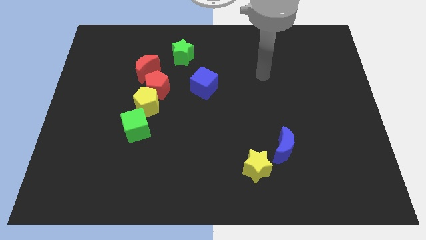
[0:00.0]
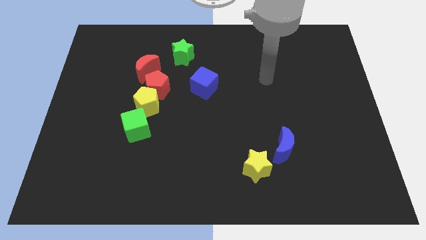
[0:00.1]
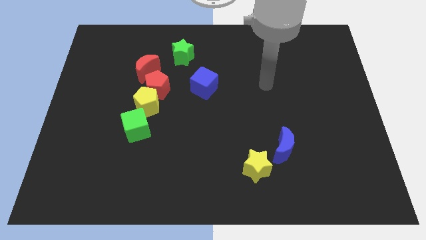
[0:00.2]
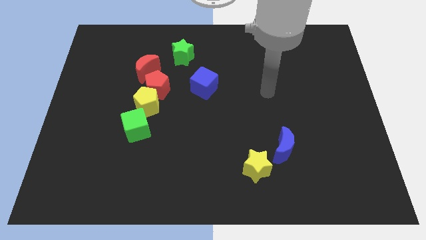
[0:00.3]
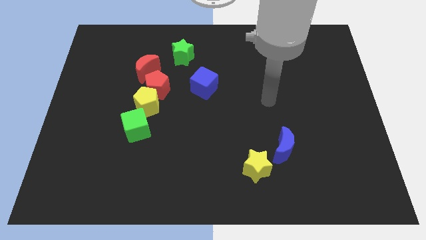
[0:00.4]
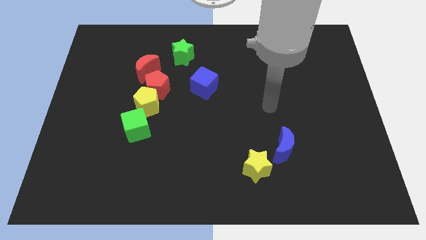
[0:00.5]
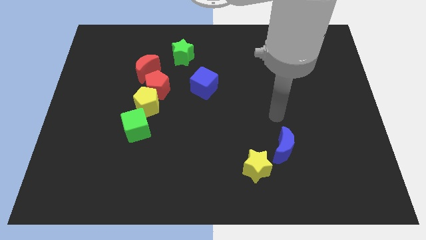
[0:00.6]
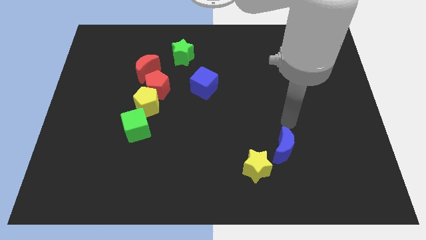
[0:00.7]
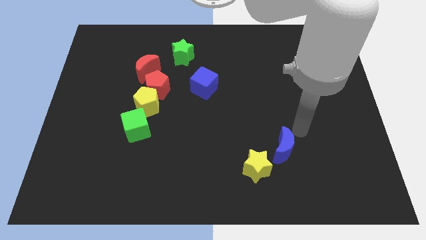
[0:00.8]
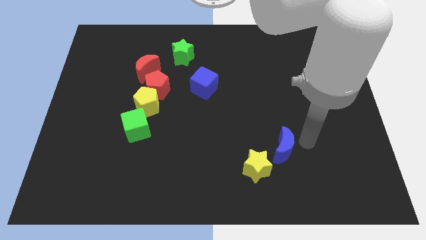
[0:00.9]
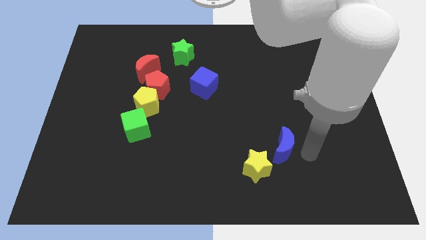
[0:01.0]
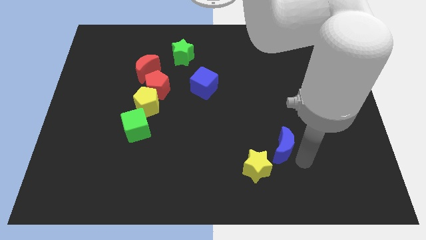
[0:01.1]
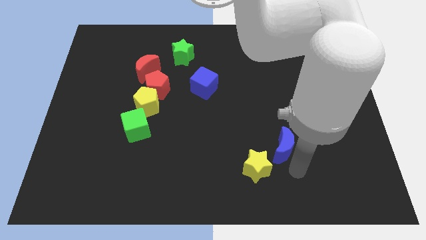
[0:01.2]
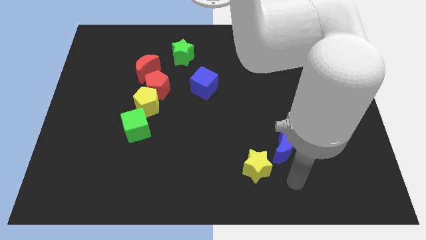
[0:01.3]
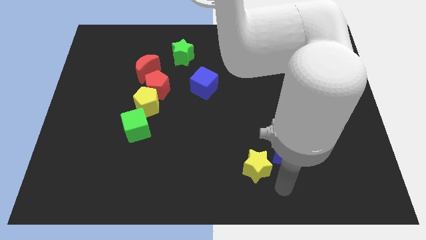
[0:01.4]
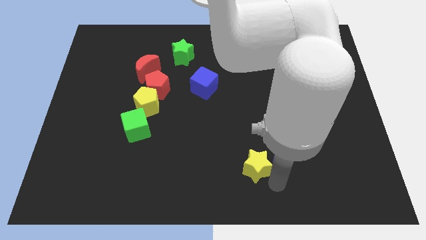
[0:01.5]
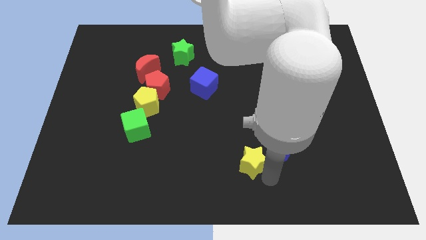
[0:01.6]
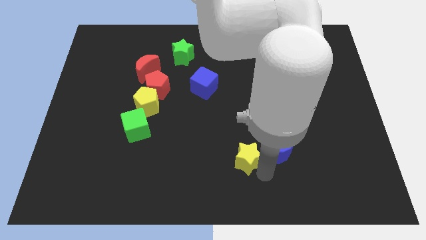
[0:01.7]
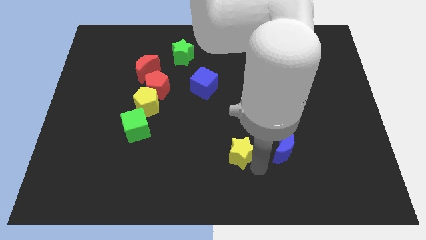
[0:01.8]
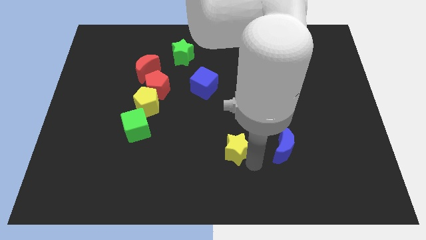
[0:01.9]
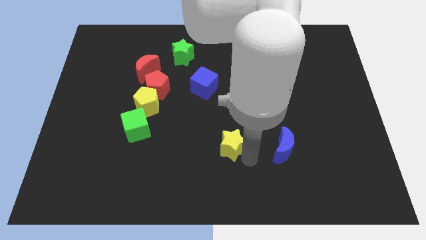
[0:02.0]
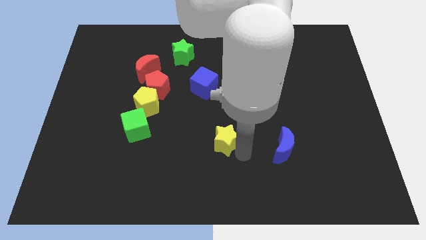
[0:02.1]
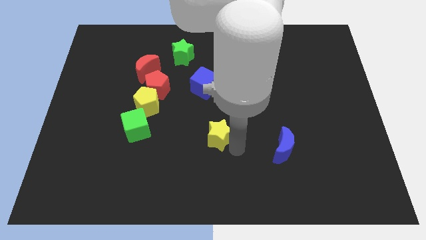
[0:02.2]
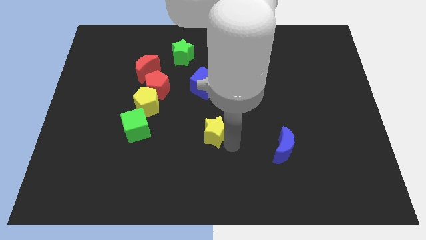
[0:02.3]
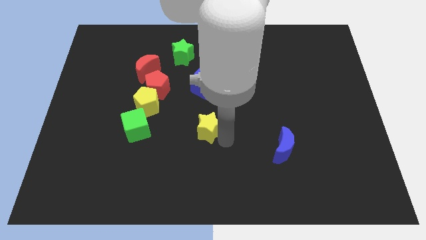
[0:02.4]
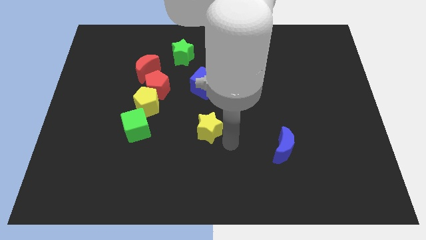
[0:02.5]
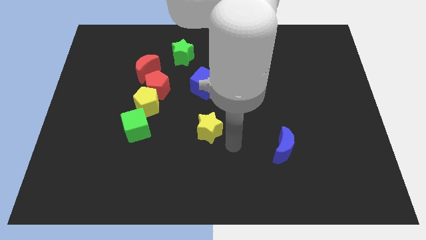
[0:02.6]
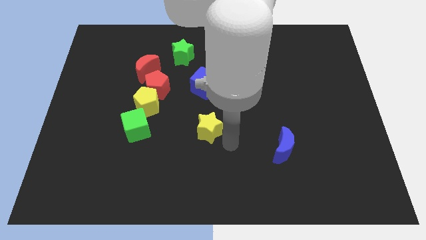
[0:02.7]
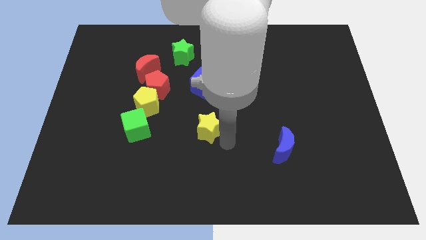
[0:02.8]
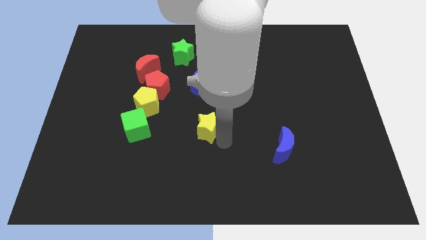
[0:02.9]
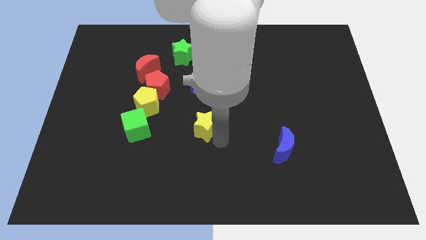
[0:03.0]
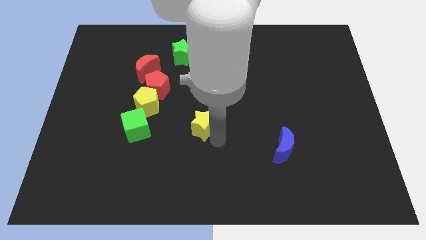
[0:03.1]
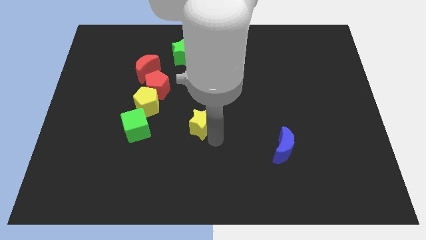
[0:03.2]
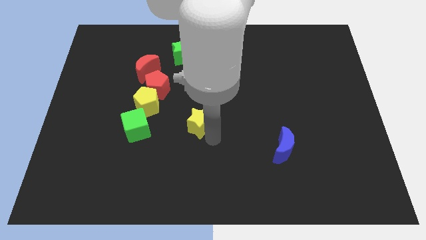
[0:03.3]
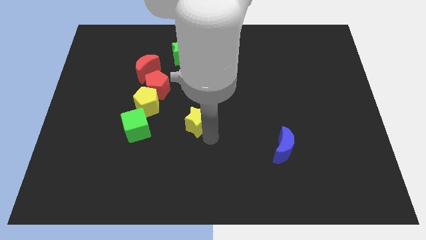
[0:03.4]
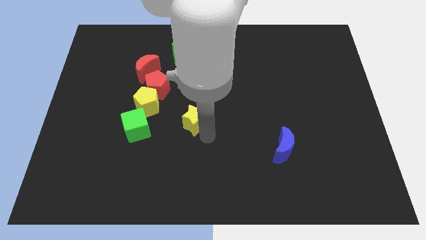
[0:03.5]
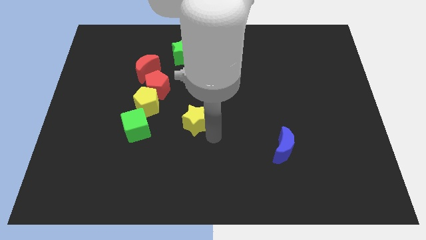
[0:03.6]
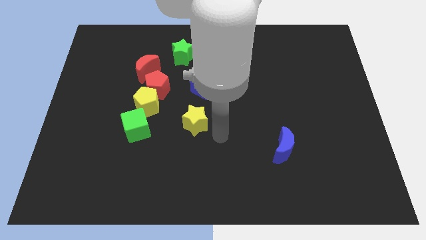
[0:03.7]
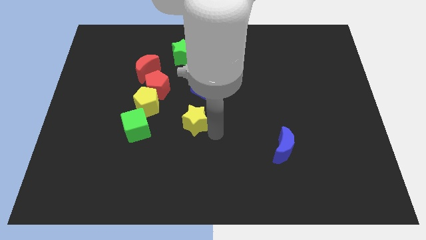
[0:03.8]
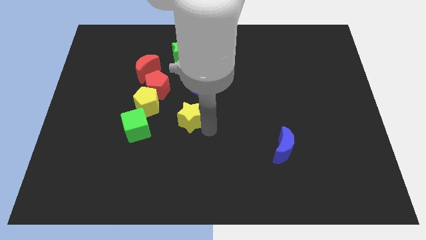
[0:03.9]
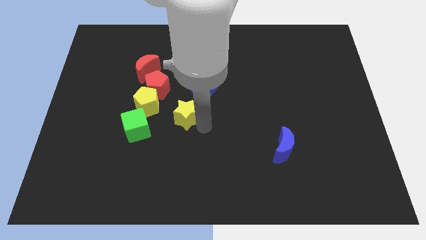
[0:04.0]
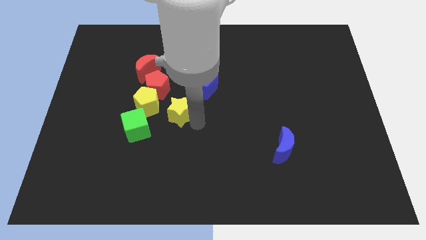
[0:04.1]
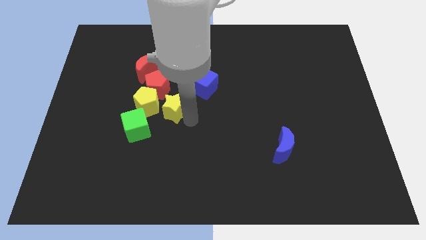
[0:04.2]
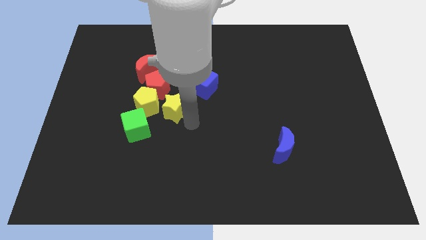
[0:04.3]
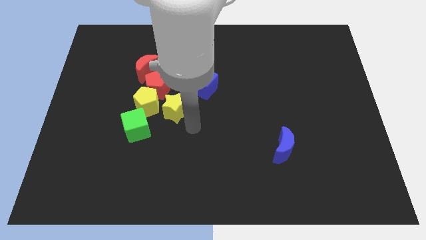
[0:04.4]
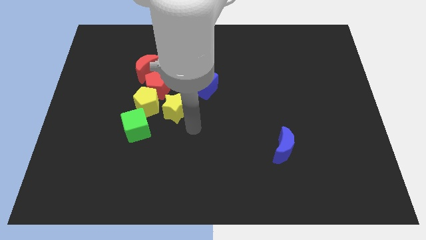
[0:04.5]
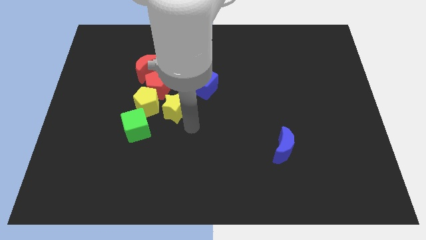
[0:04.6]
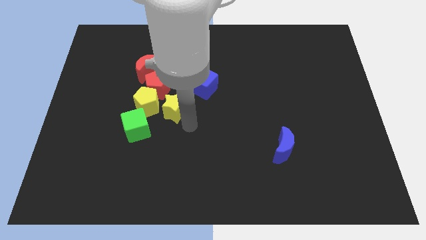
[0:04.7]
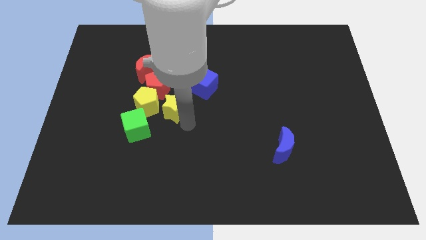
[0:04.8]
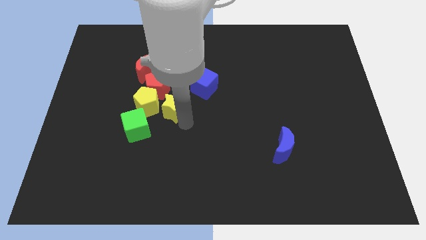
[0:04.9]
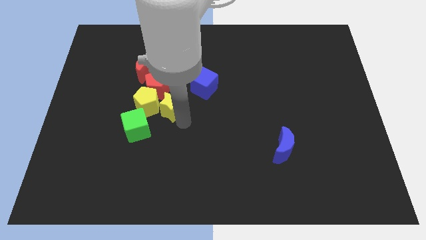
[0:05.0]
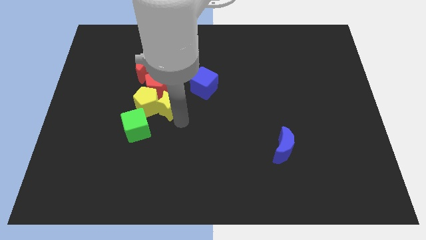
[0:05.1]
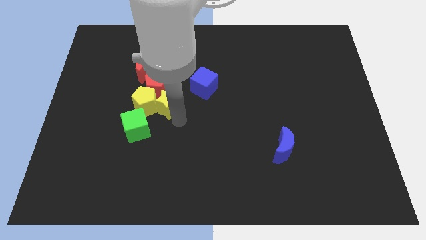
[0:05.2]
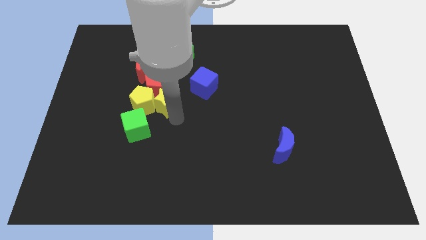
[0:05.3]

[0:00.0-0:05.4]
slide the yellow star to the red pentagon

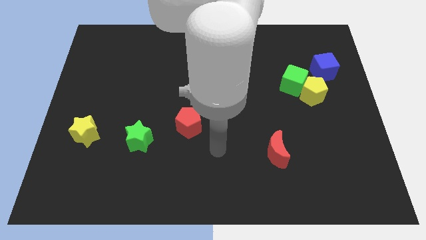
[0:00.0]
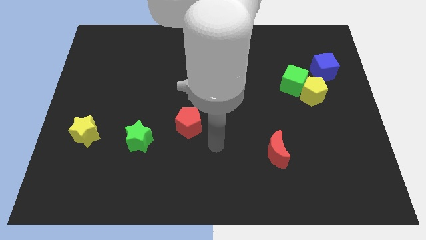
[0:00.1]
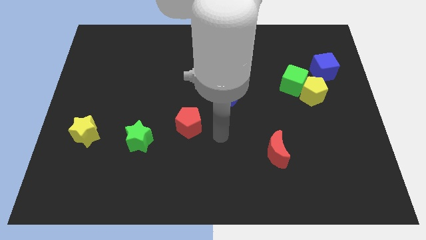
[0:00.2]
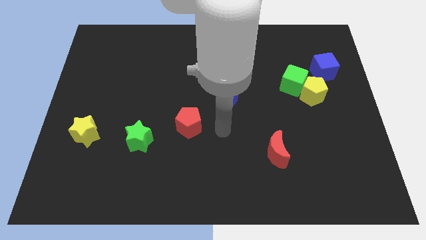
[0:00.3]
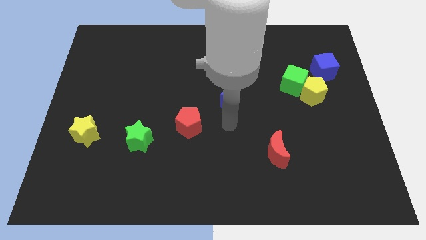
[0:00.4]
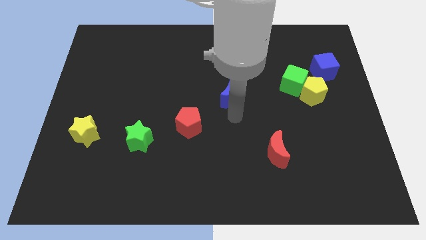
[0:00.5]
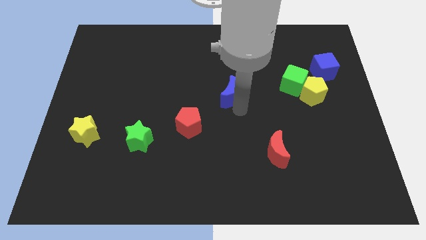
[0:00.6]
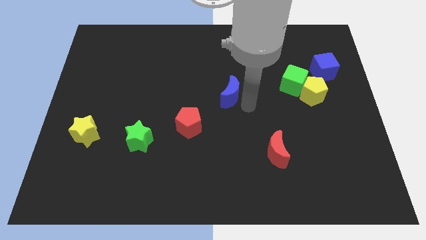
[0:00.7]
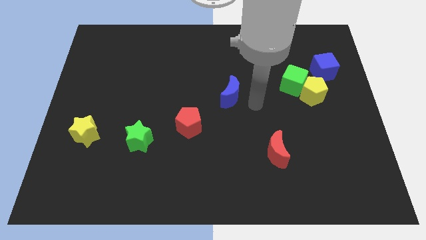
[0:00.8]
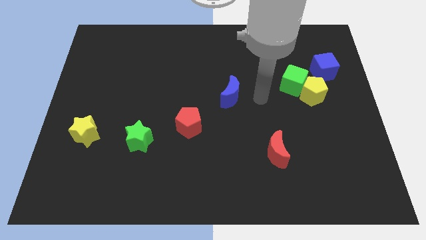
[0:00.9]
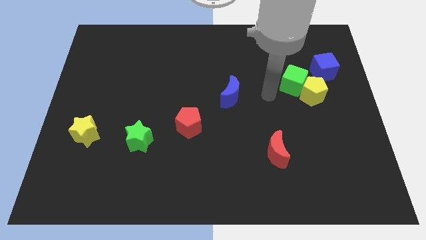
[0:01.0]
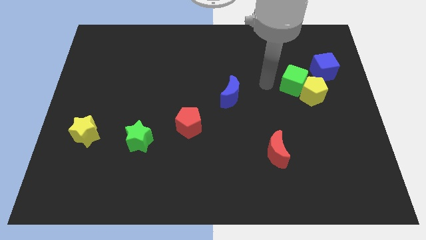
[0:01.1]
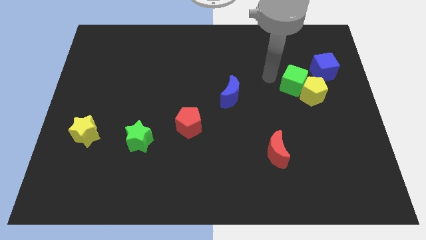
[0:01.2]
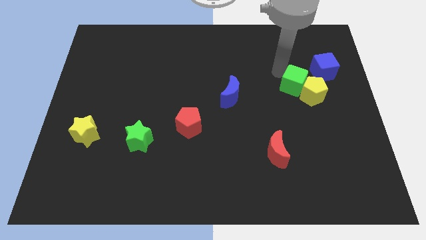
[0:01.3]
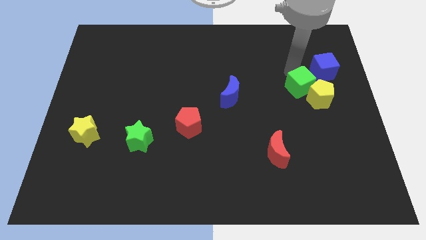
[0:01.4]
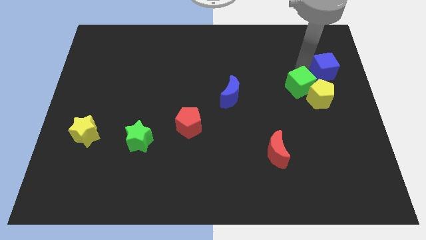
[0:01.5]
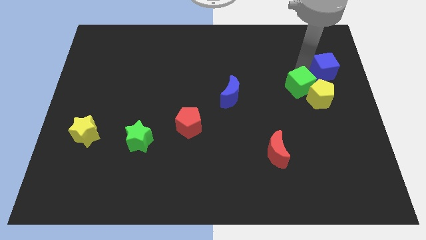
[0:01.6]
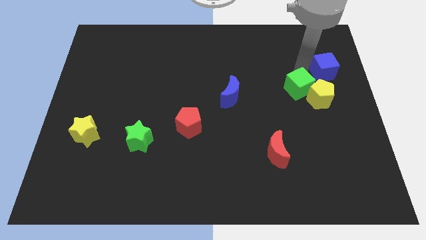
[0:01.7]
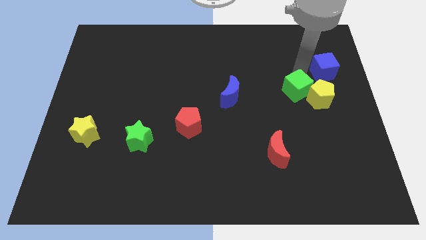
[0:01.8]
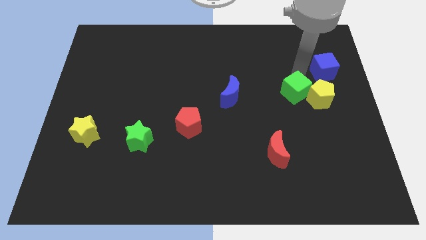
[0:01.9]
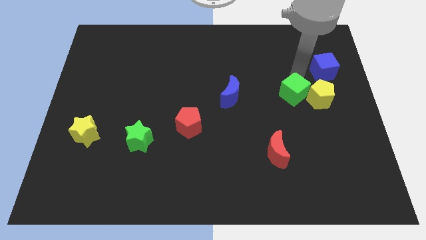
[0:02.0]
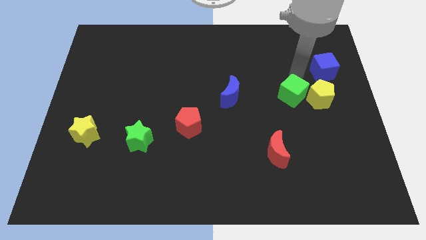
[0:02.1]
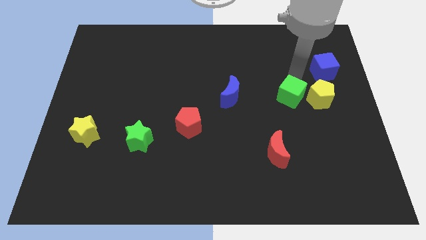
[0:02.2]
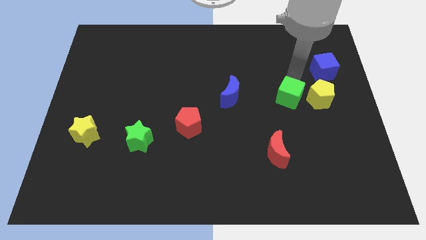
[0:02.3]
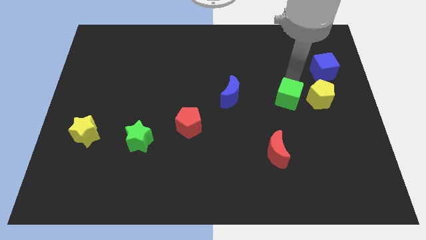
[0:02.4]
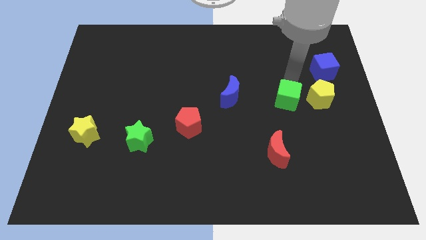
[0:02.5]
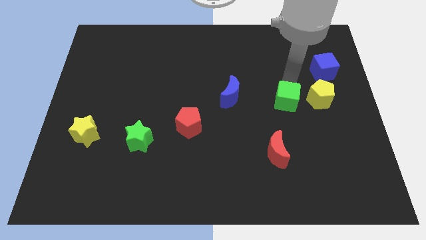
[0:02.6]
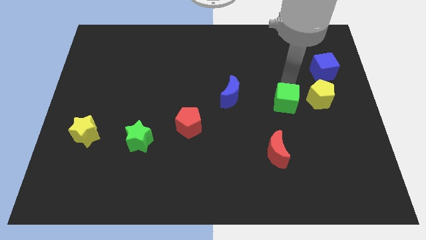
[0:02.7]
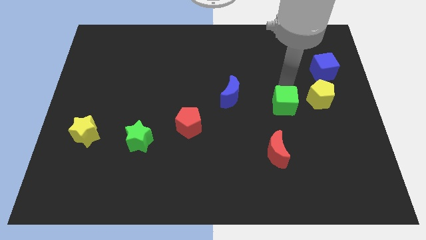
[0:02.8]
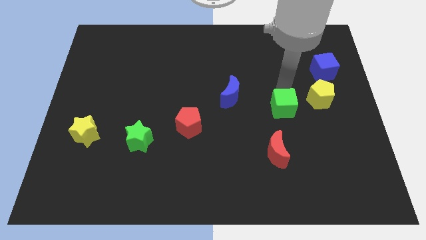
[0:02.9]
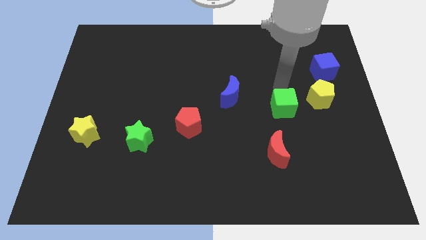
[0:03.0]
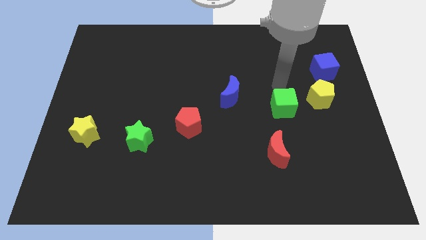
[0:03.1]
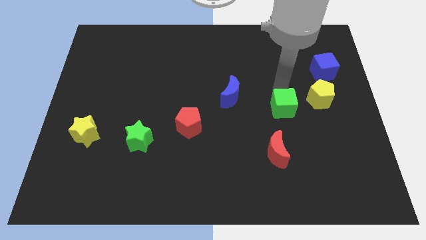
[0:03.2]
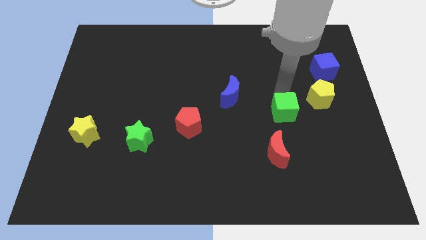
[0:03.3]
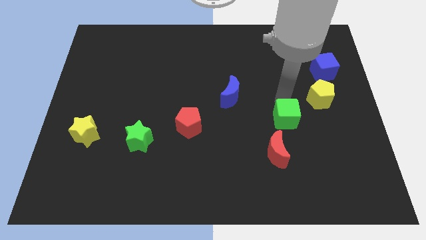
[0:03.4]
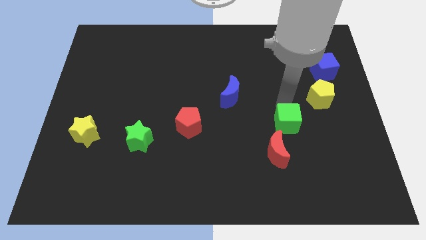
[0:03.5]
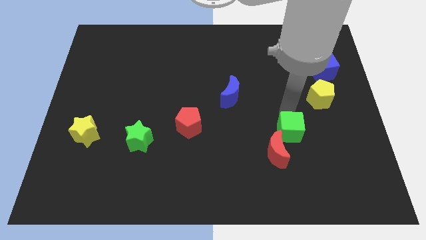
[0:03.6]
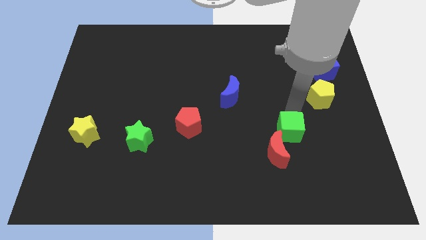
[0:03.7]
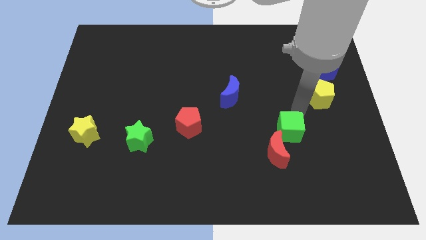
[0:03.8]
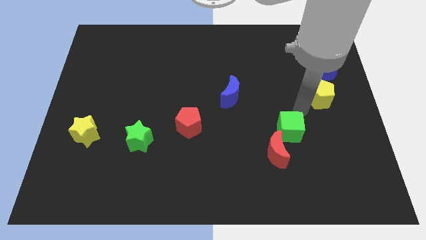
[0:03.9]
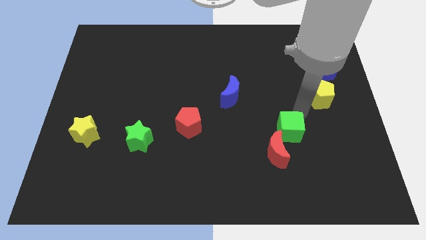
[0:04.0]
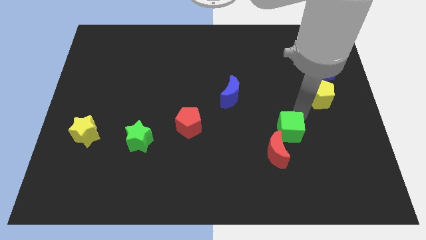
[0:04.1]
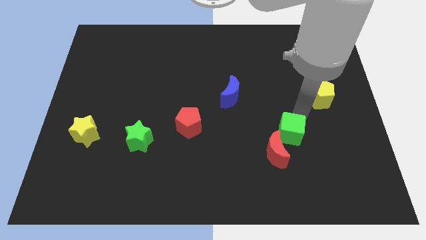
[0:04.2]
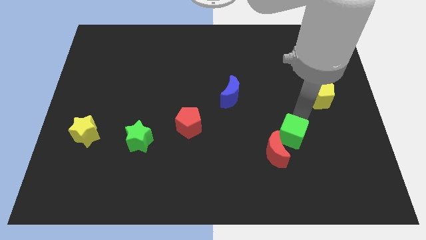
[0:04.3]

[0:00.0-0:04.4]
push the green cube next to the red moon
